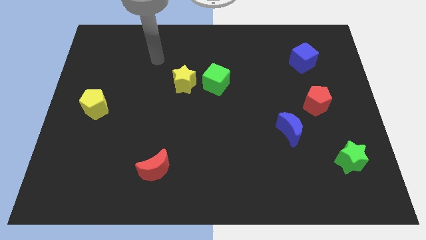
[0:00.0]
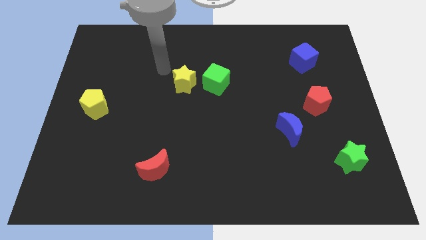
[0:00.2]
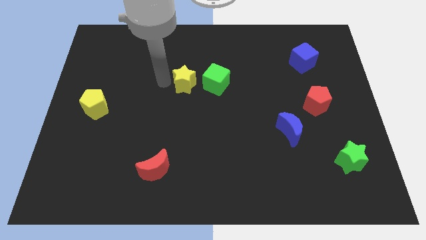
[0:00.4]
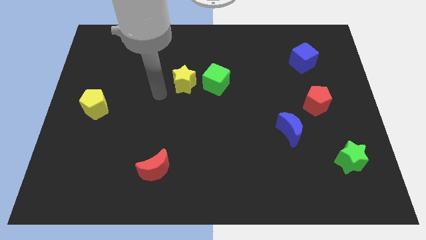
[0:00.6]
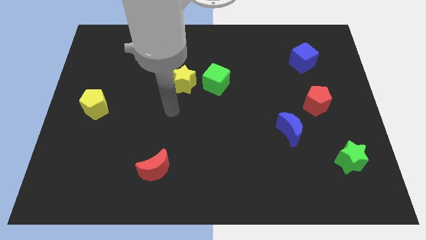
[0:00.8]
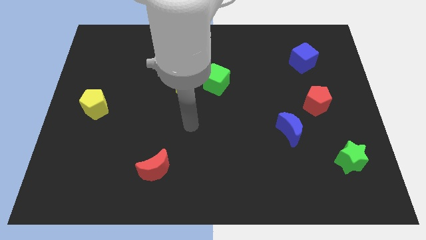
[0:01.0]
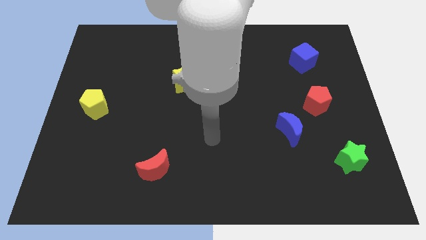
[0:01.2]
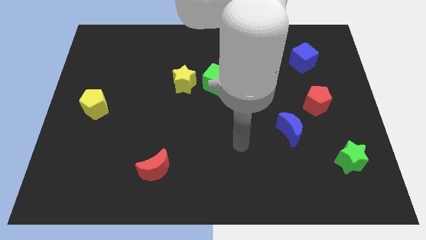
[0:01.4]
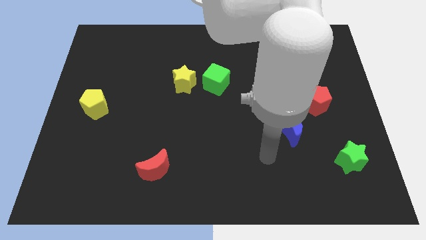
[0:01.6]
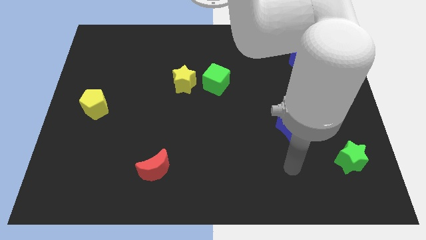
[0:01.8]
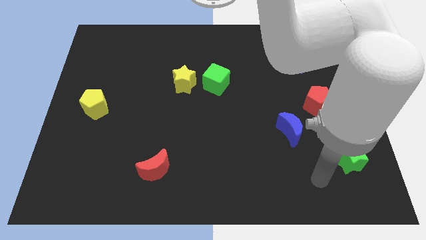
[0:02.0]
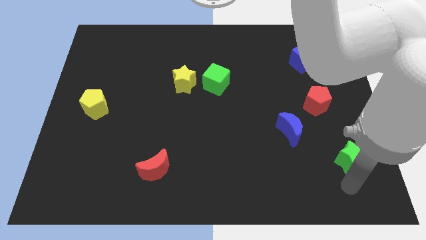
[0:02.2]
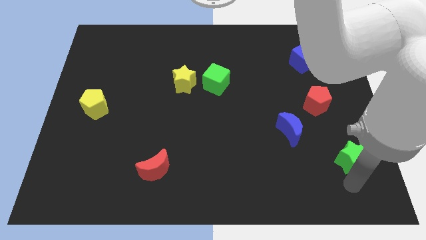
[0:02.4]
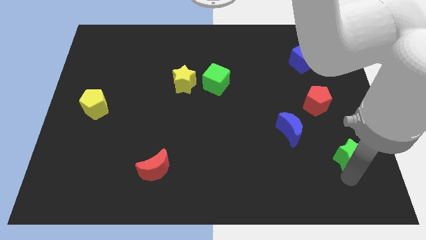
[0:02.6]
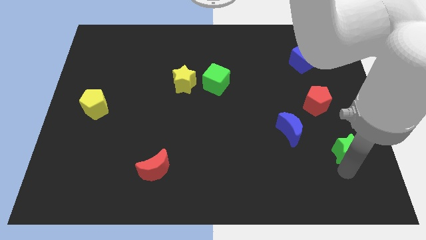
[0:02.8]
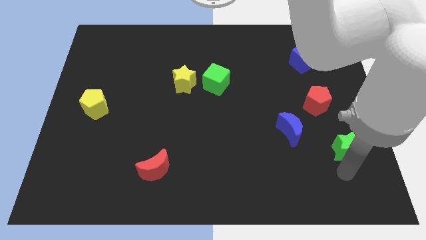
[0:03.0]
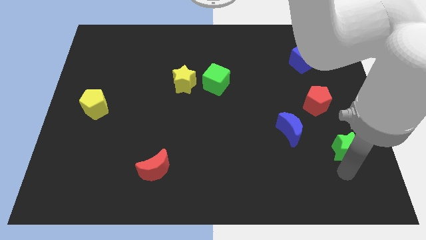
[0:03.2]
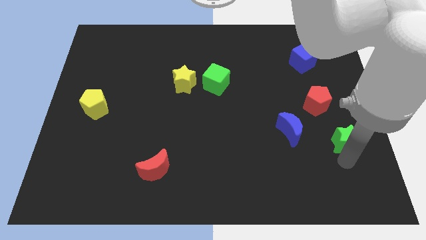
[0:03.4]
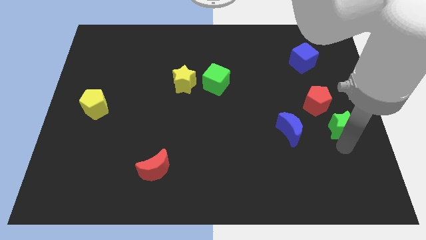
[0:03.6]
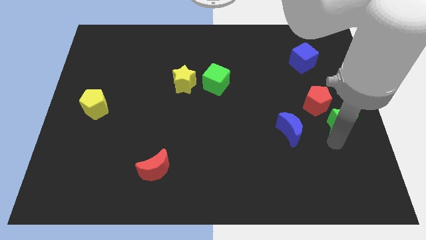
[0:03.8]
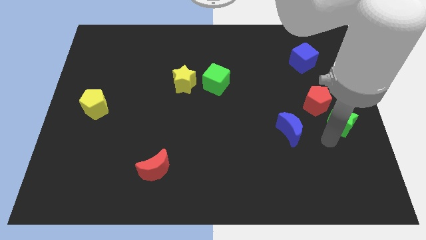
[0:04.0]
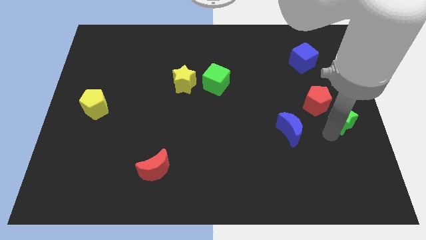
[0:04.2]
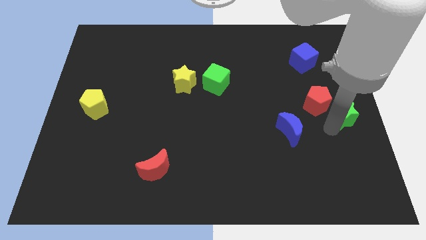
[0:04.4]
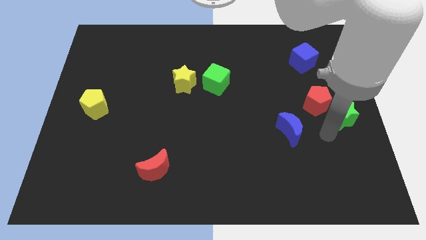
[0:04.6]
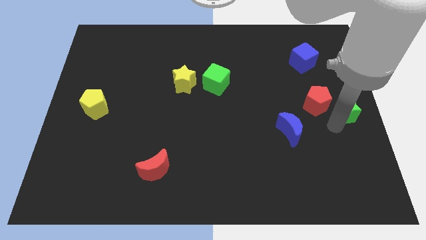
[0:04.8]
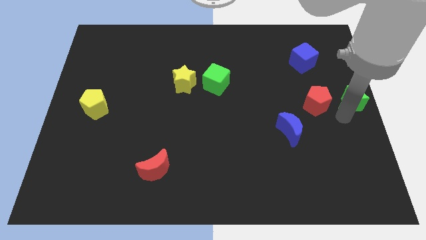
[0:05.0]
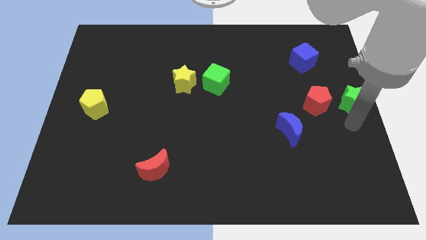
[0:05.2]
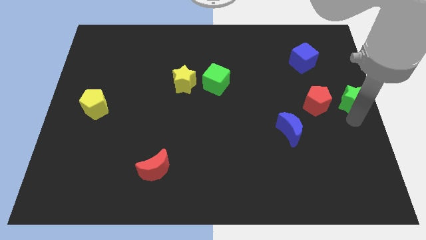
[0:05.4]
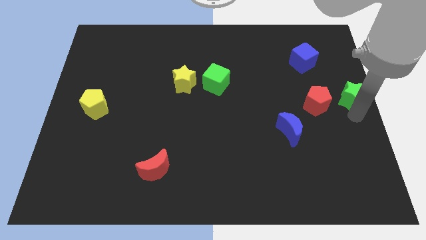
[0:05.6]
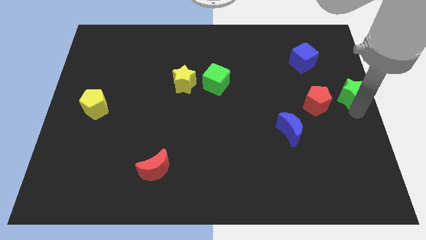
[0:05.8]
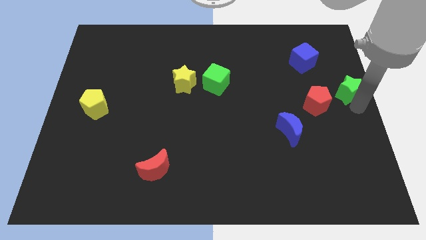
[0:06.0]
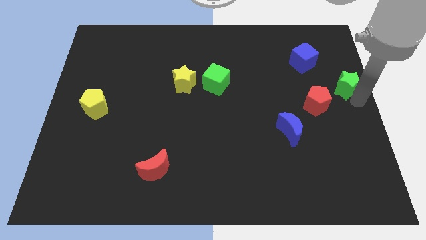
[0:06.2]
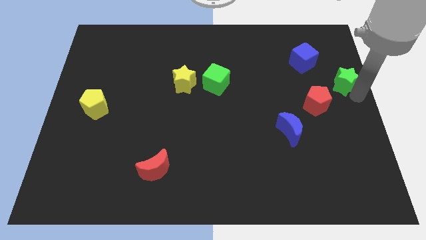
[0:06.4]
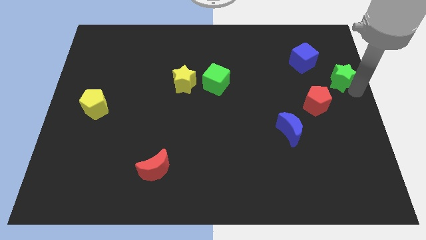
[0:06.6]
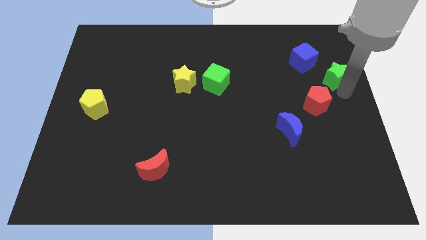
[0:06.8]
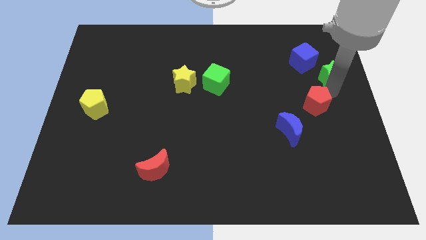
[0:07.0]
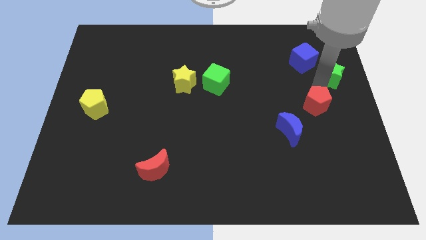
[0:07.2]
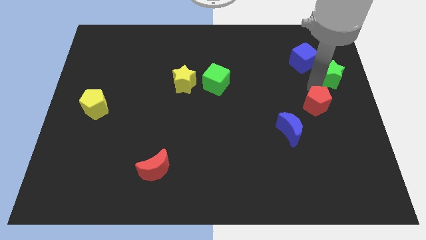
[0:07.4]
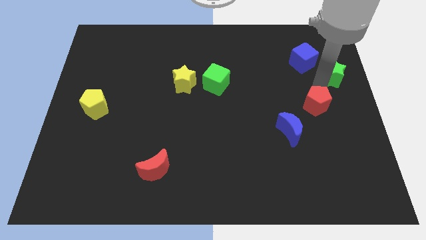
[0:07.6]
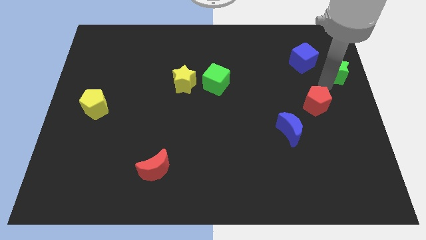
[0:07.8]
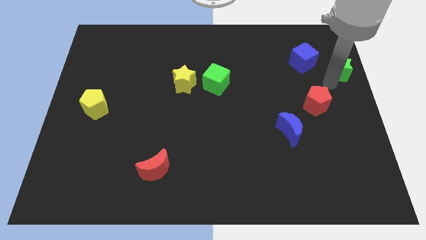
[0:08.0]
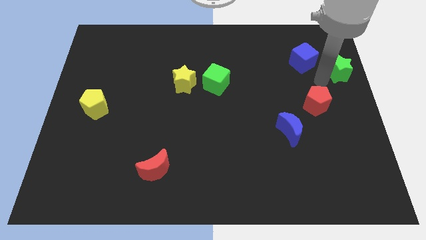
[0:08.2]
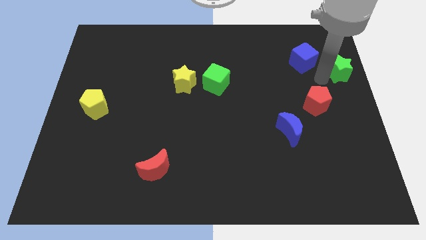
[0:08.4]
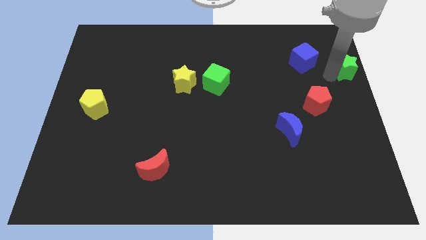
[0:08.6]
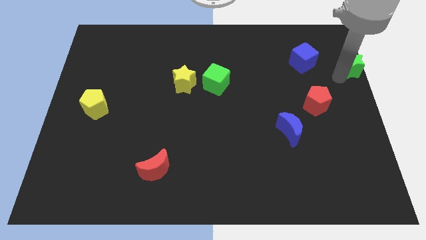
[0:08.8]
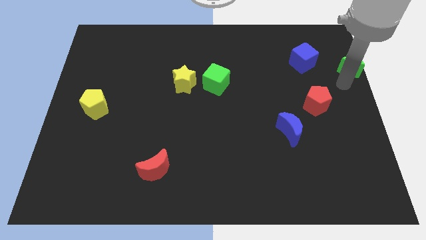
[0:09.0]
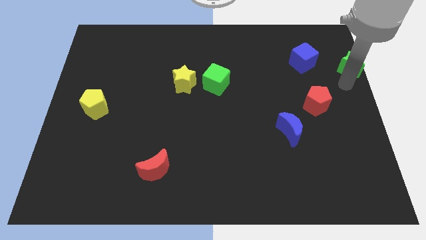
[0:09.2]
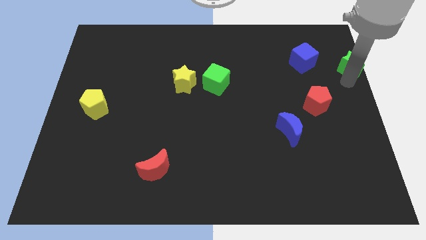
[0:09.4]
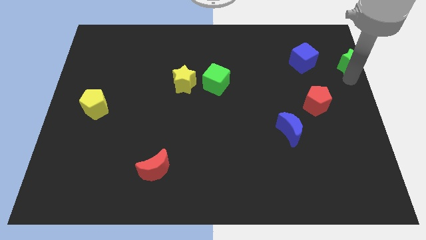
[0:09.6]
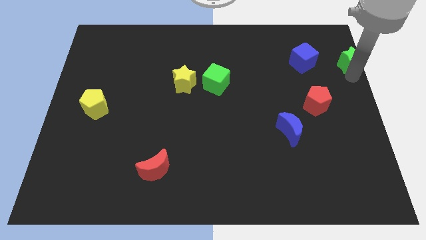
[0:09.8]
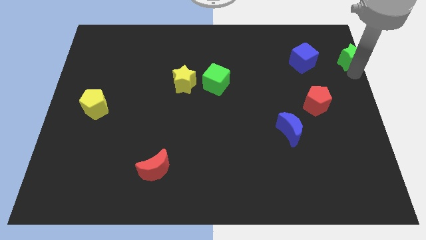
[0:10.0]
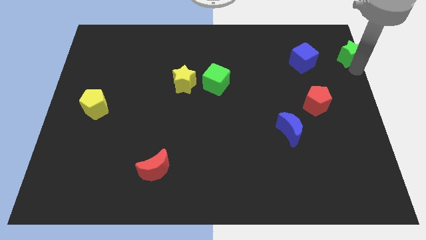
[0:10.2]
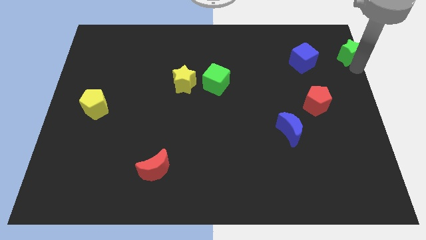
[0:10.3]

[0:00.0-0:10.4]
put the green star to the top right

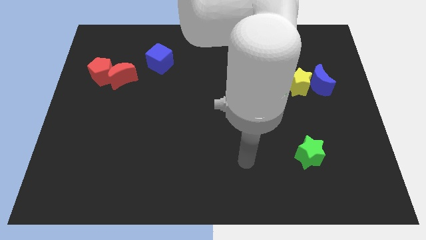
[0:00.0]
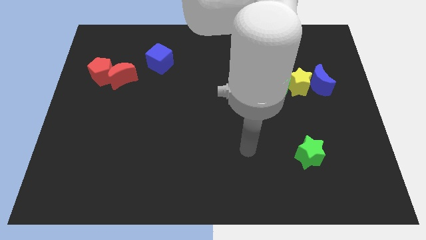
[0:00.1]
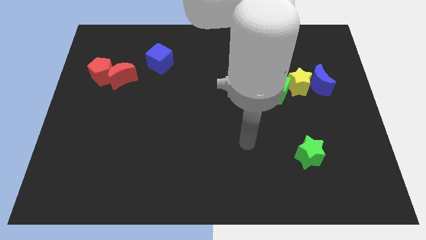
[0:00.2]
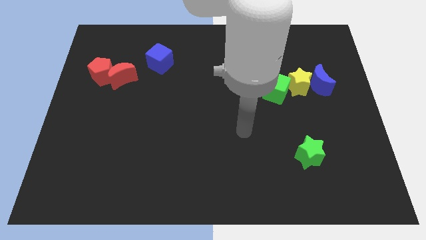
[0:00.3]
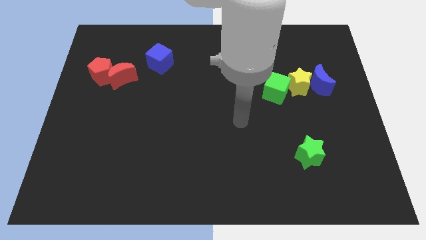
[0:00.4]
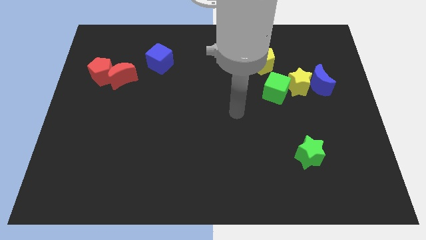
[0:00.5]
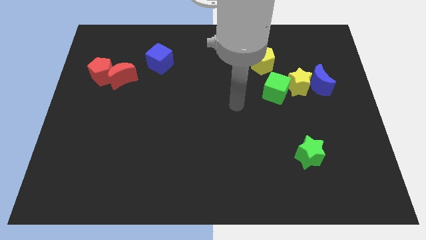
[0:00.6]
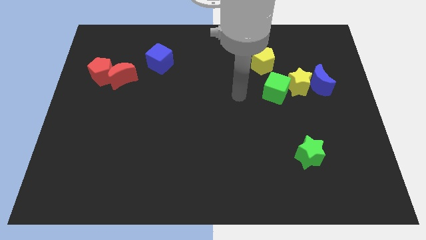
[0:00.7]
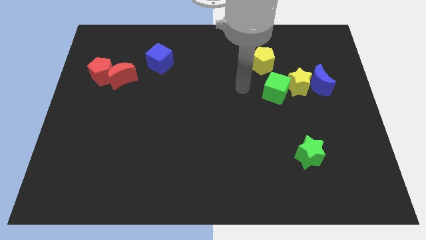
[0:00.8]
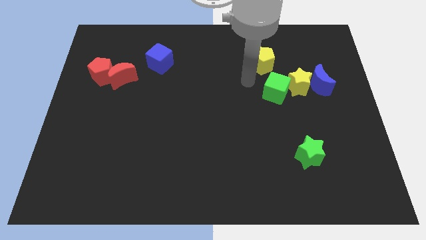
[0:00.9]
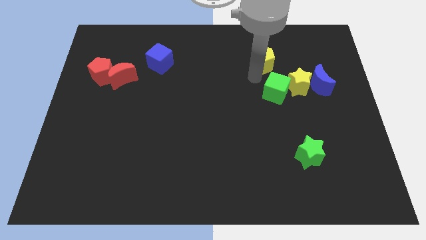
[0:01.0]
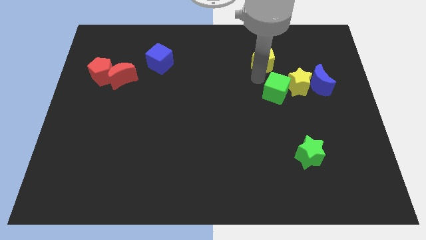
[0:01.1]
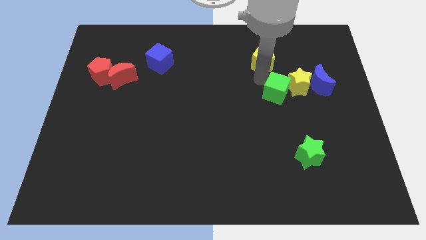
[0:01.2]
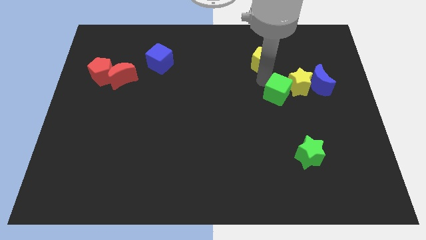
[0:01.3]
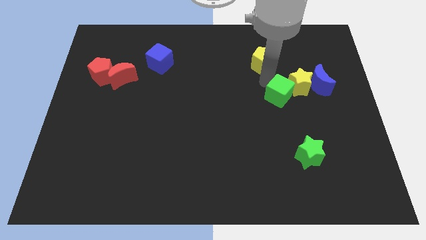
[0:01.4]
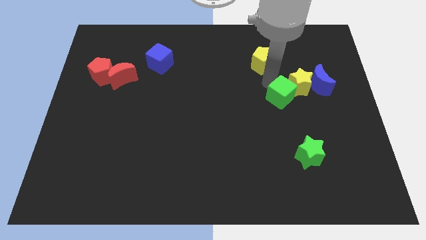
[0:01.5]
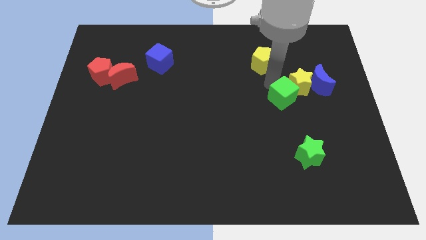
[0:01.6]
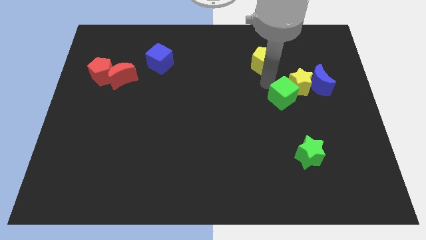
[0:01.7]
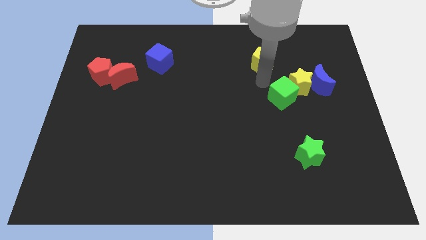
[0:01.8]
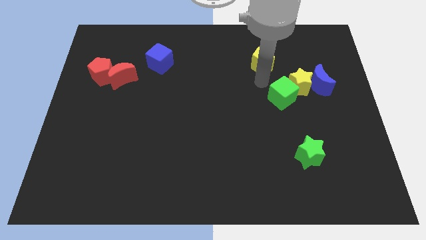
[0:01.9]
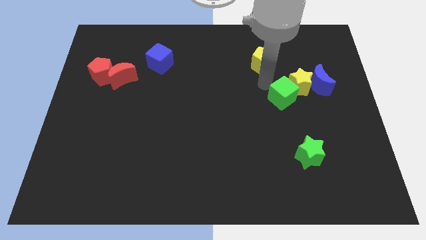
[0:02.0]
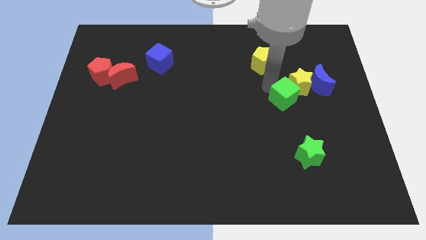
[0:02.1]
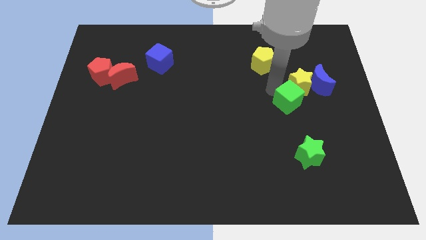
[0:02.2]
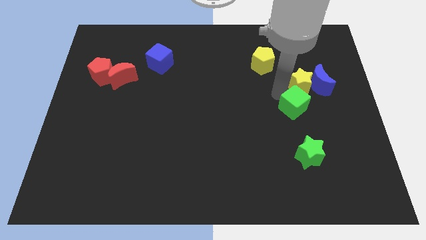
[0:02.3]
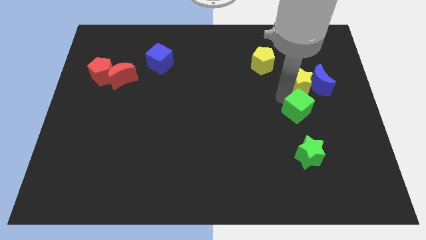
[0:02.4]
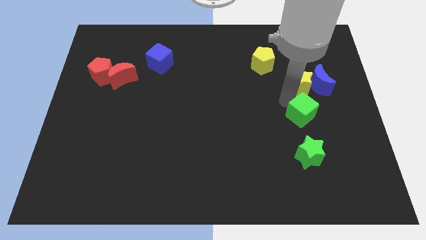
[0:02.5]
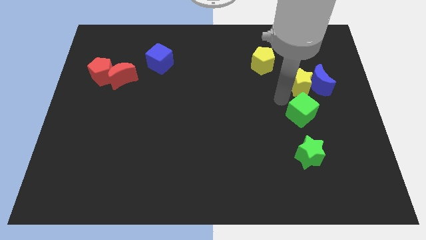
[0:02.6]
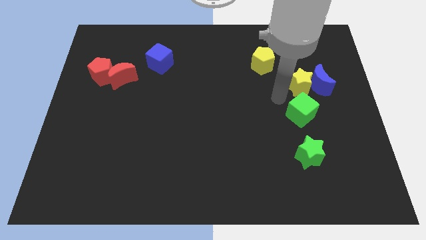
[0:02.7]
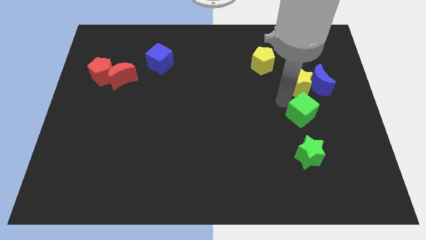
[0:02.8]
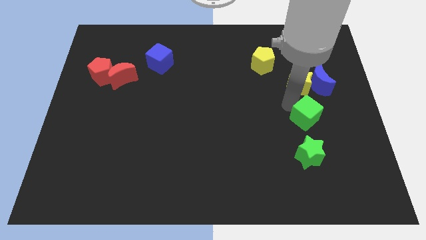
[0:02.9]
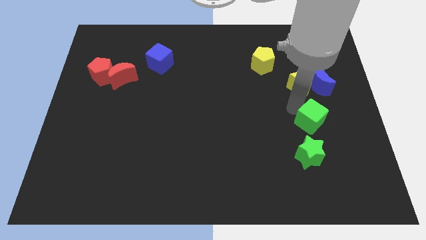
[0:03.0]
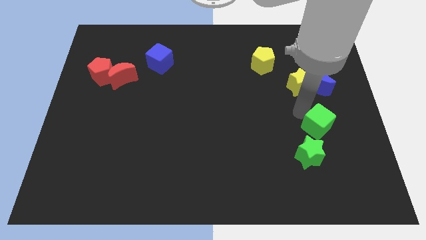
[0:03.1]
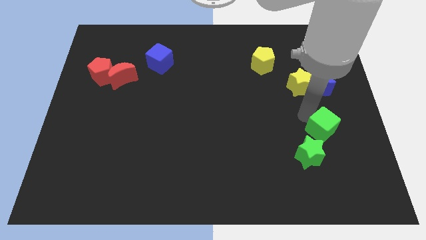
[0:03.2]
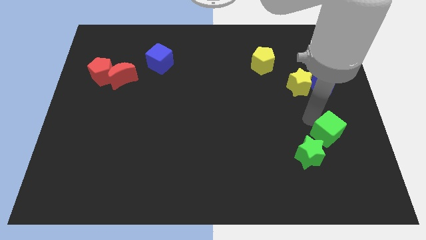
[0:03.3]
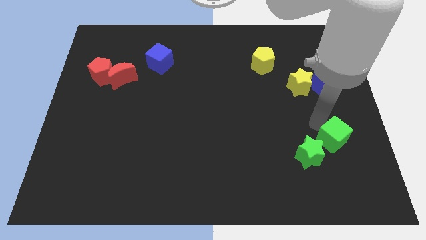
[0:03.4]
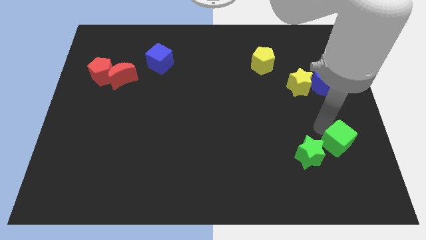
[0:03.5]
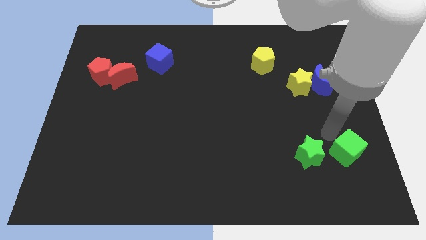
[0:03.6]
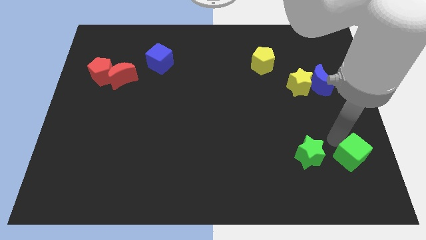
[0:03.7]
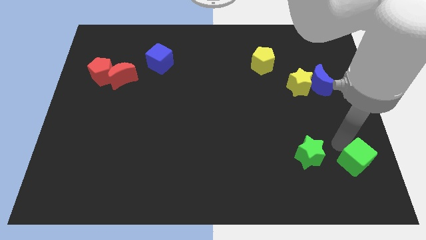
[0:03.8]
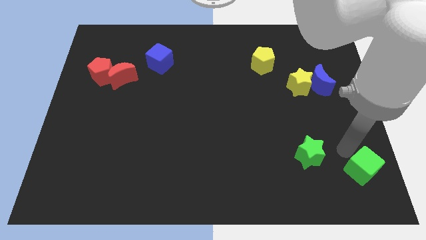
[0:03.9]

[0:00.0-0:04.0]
move the green cube to the bottom right corner
